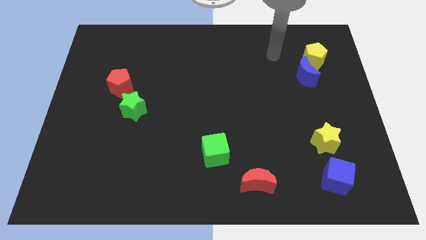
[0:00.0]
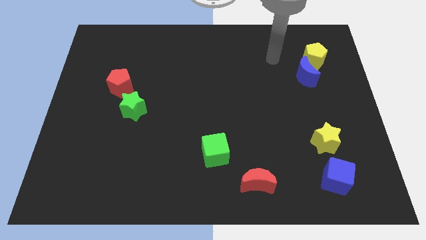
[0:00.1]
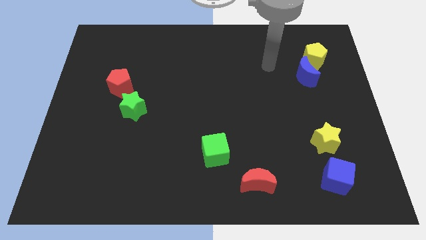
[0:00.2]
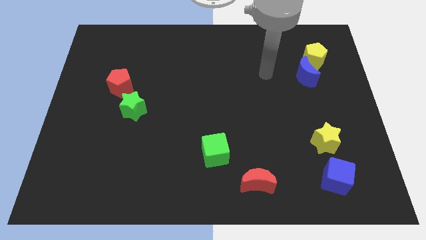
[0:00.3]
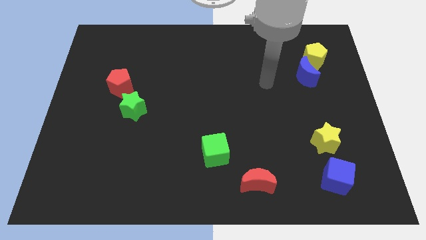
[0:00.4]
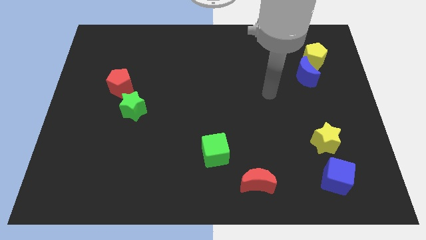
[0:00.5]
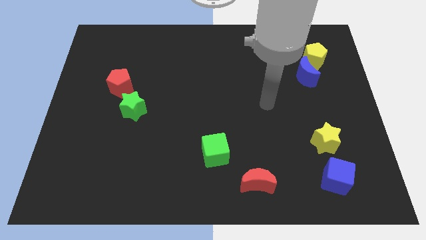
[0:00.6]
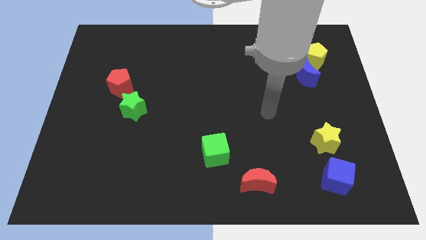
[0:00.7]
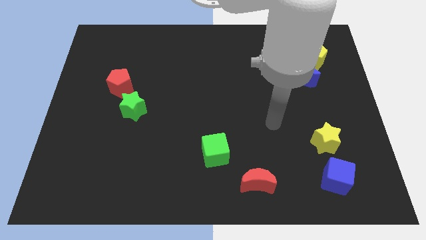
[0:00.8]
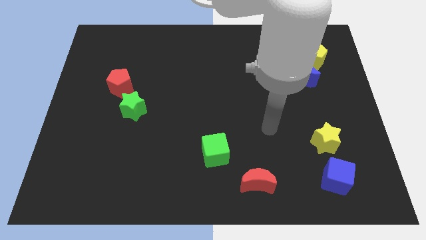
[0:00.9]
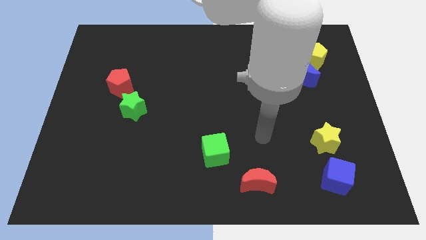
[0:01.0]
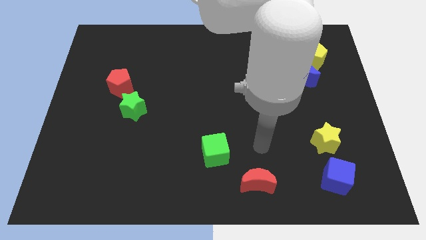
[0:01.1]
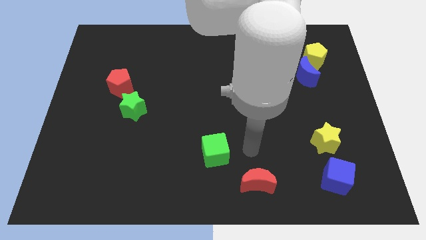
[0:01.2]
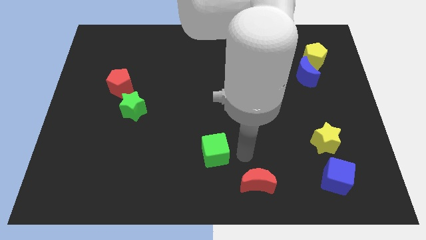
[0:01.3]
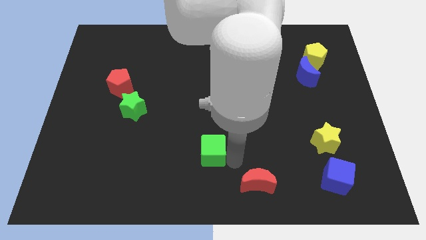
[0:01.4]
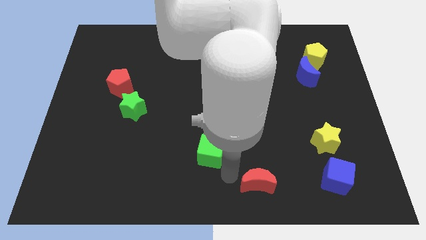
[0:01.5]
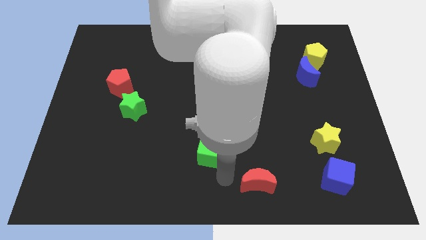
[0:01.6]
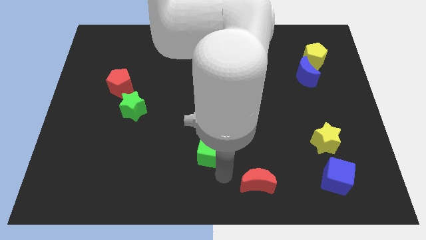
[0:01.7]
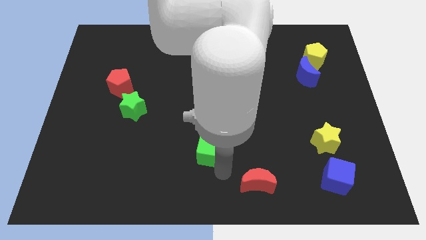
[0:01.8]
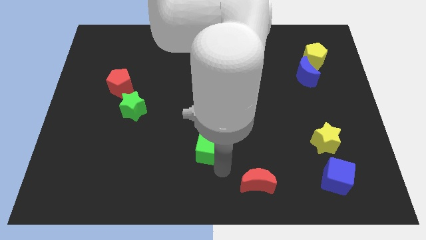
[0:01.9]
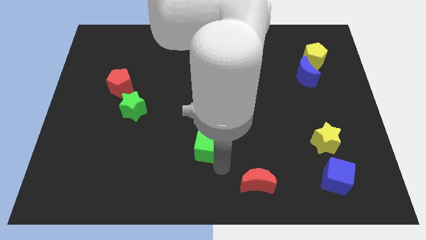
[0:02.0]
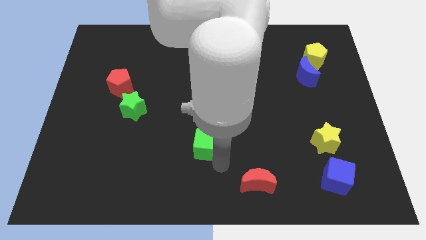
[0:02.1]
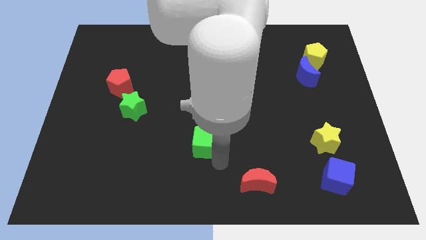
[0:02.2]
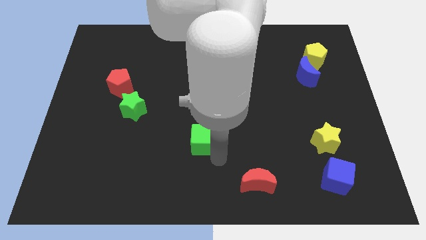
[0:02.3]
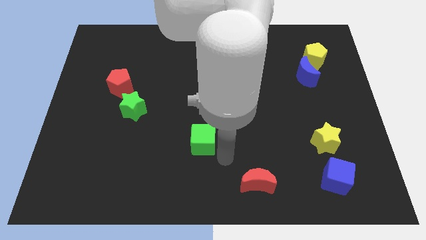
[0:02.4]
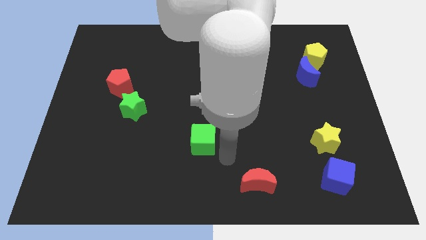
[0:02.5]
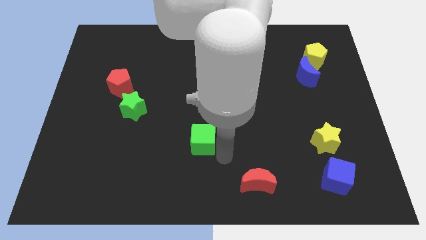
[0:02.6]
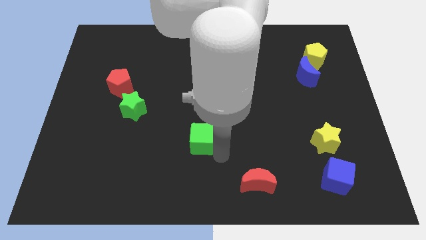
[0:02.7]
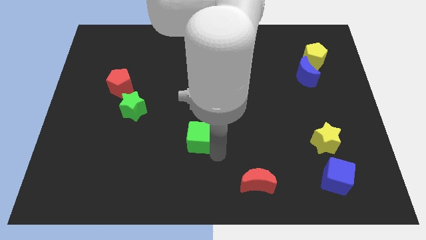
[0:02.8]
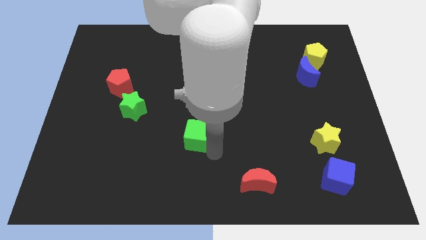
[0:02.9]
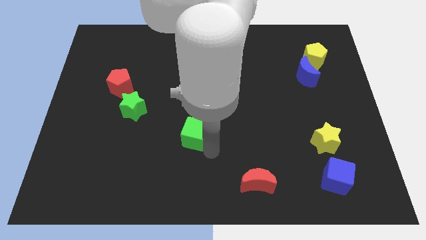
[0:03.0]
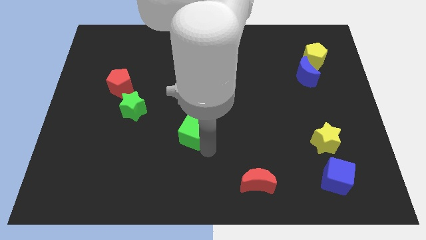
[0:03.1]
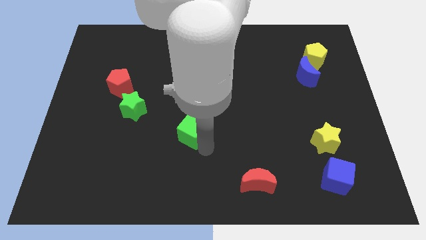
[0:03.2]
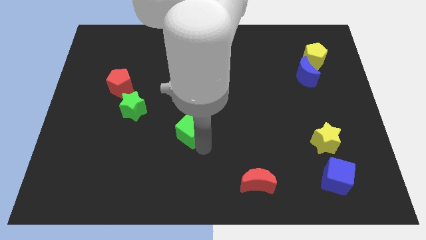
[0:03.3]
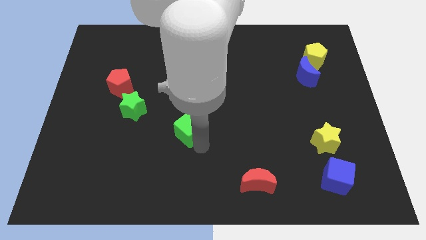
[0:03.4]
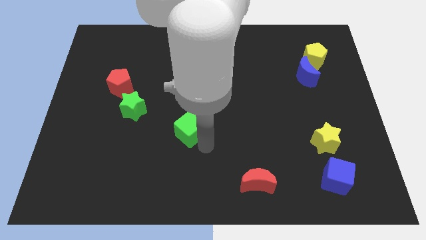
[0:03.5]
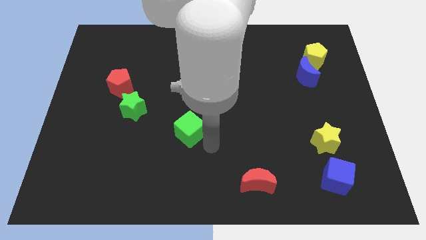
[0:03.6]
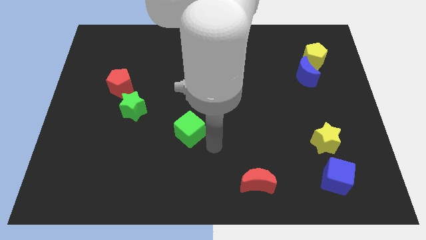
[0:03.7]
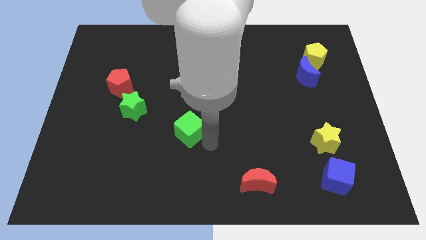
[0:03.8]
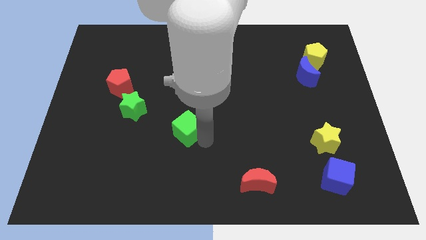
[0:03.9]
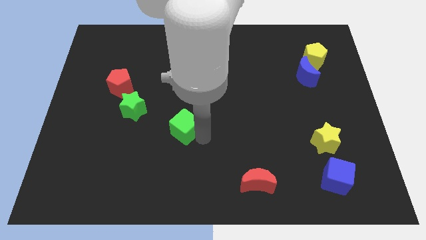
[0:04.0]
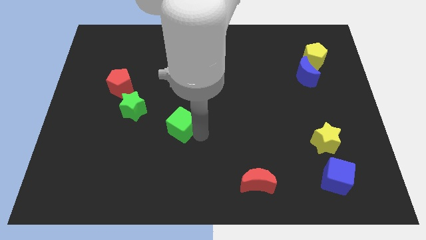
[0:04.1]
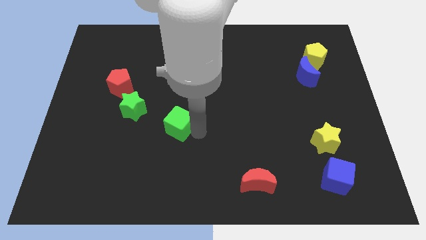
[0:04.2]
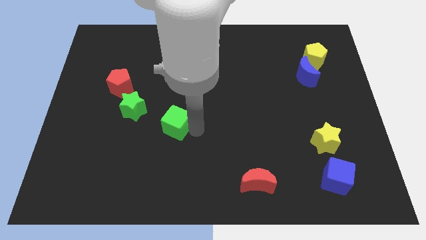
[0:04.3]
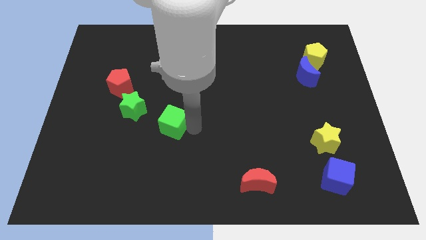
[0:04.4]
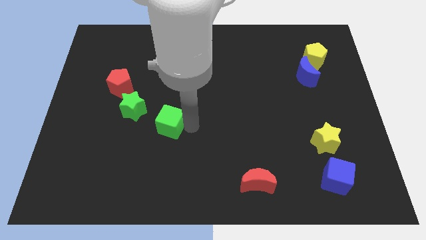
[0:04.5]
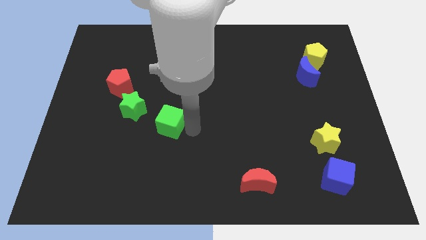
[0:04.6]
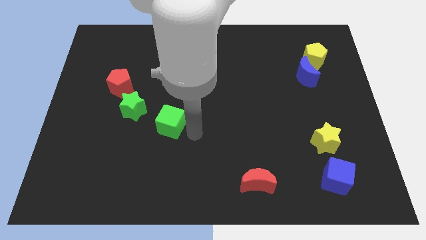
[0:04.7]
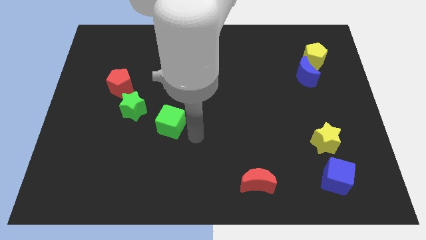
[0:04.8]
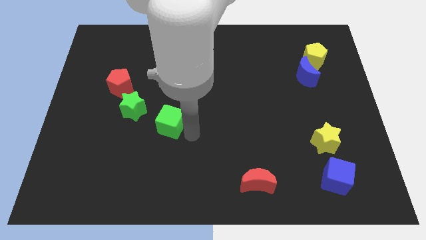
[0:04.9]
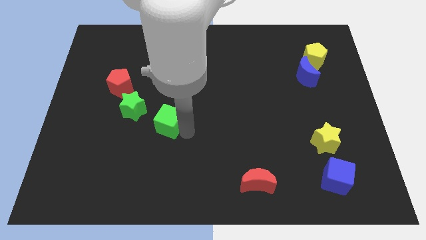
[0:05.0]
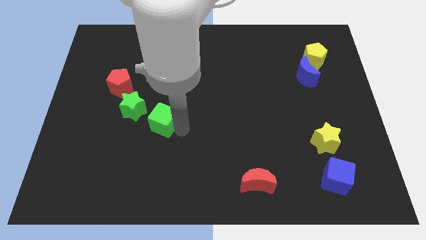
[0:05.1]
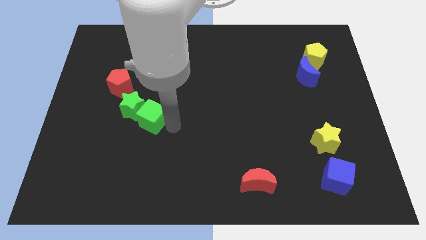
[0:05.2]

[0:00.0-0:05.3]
slide the green cube towards the green star

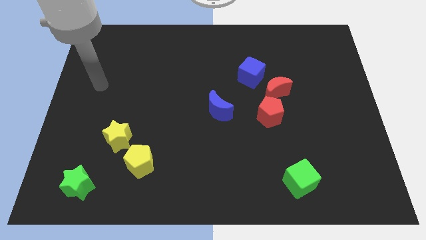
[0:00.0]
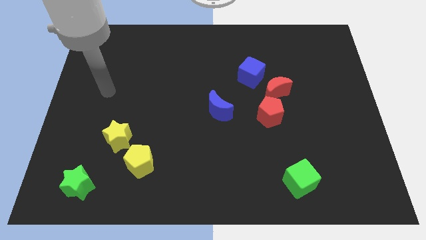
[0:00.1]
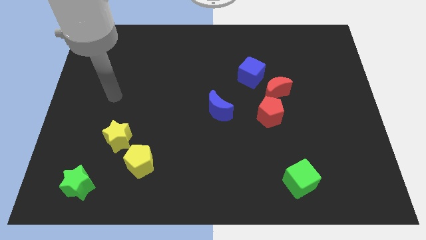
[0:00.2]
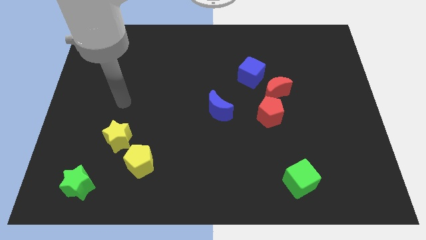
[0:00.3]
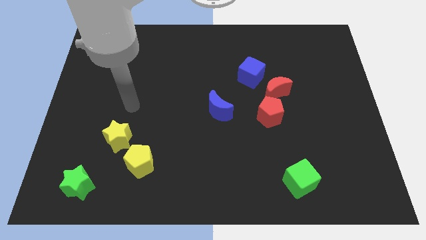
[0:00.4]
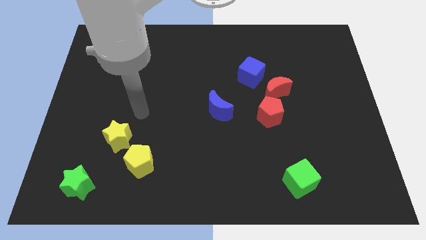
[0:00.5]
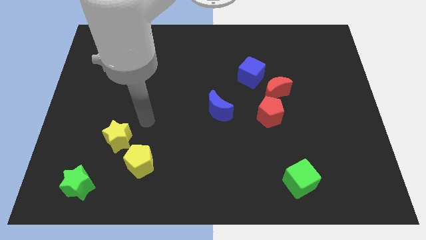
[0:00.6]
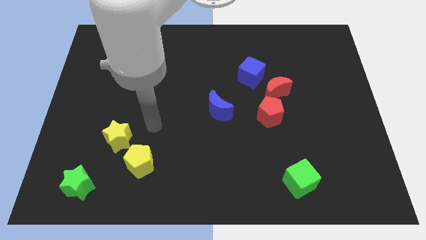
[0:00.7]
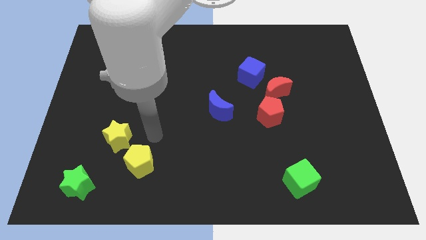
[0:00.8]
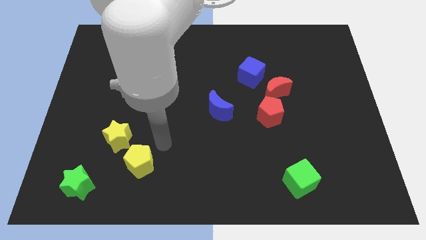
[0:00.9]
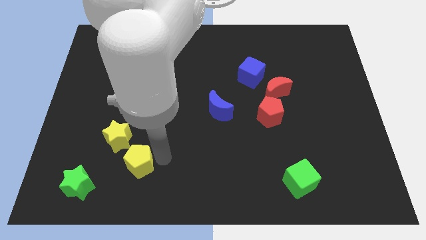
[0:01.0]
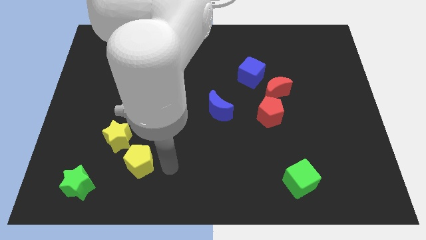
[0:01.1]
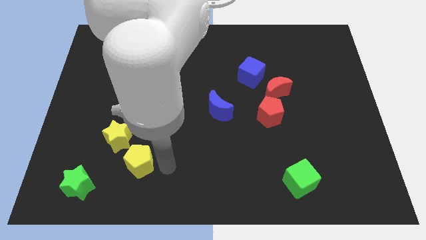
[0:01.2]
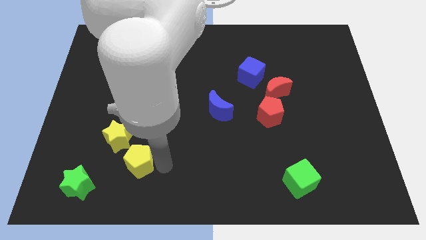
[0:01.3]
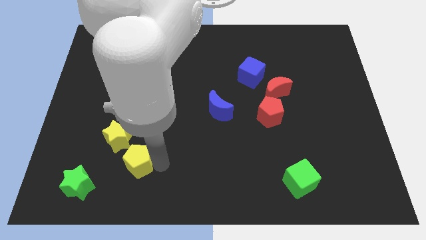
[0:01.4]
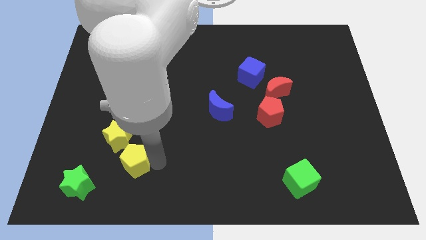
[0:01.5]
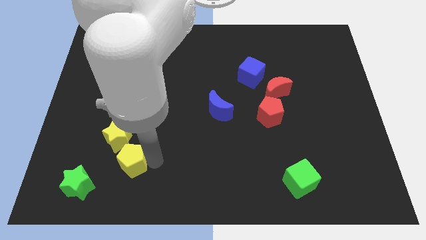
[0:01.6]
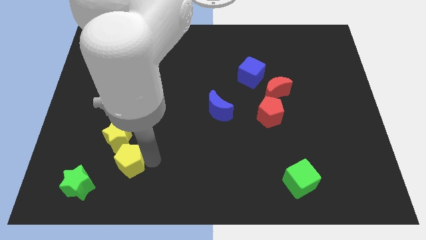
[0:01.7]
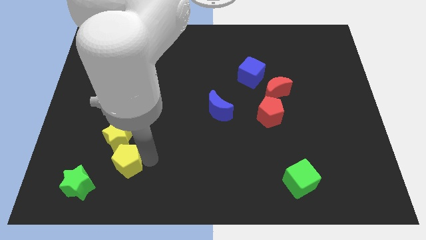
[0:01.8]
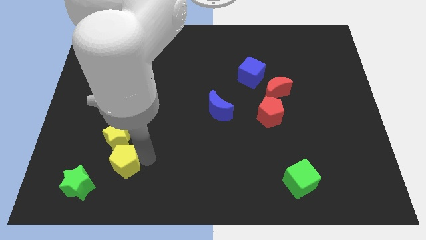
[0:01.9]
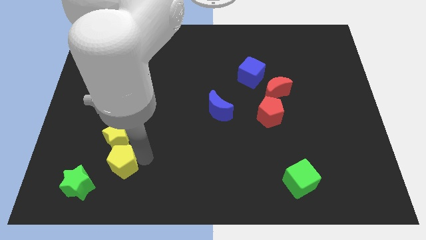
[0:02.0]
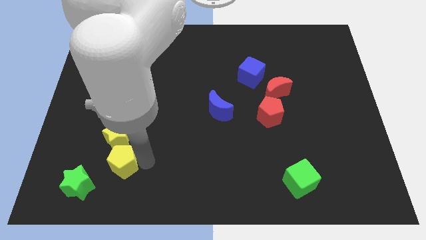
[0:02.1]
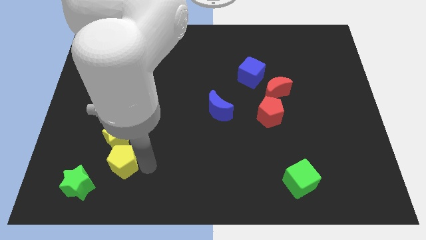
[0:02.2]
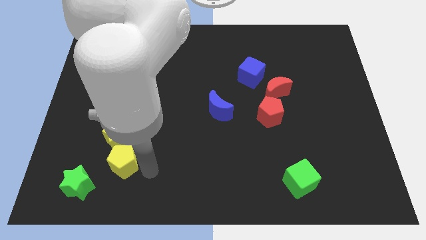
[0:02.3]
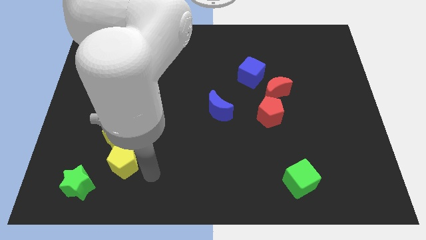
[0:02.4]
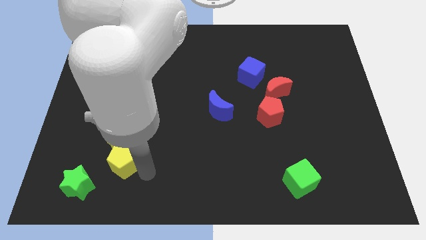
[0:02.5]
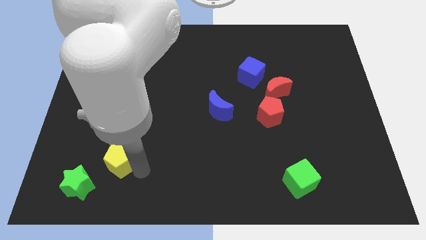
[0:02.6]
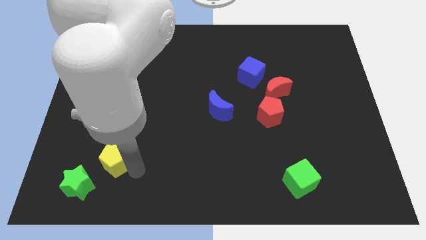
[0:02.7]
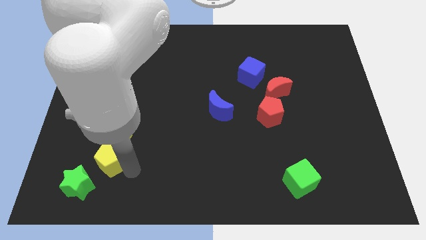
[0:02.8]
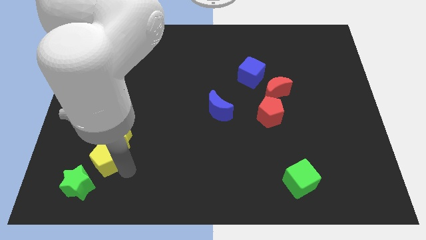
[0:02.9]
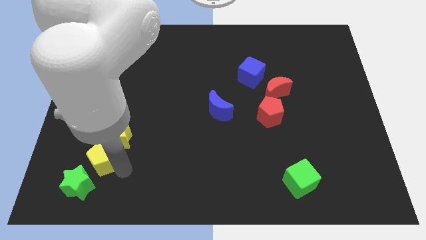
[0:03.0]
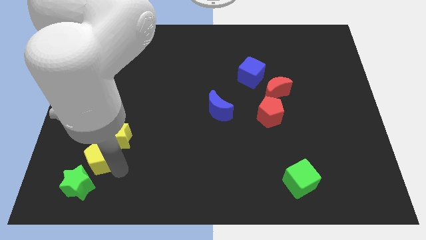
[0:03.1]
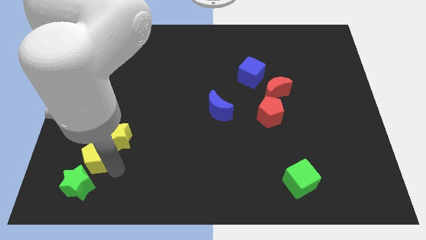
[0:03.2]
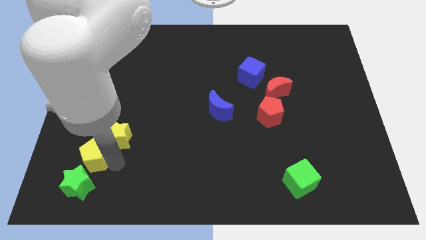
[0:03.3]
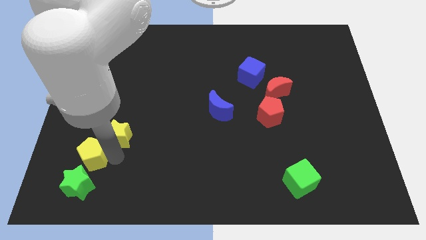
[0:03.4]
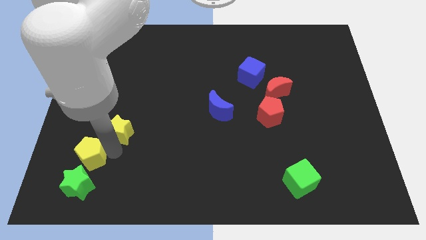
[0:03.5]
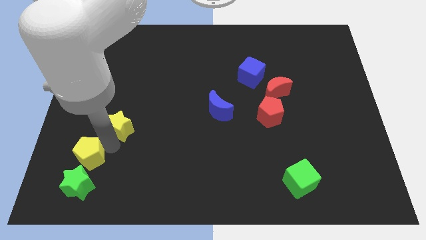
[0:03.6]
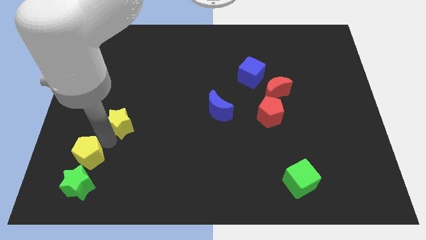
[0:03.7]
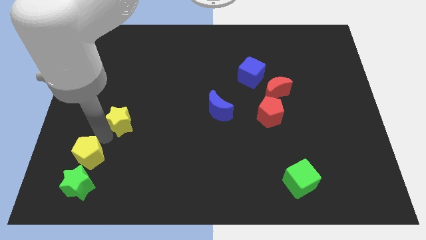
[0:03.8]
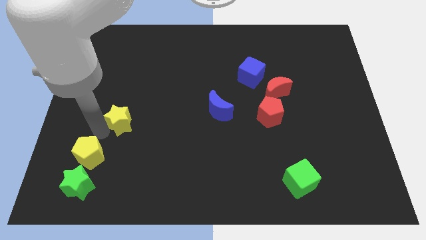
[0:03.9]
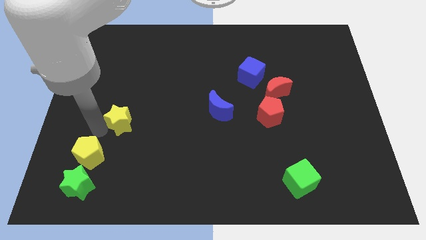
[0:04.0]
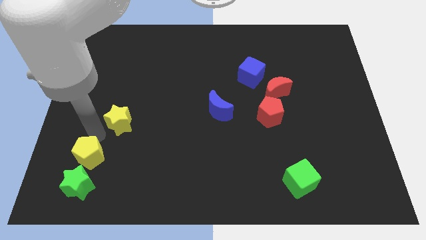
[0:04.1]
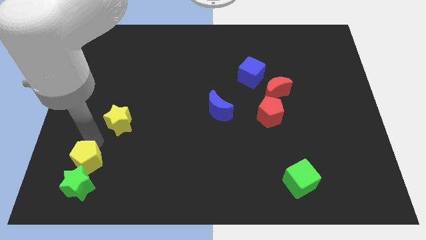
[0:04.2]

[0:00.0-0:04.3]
put the yellow pentagon to the green star
